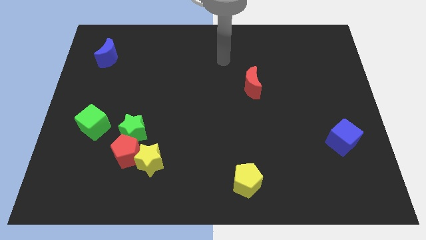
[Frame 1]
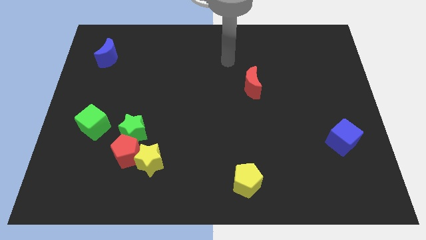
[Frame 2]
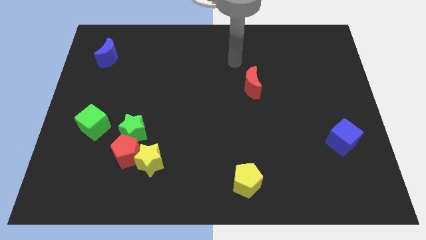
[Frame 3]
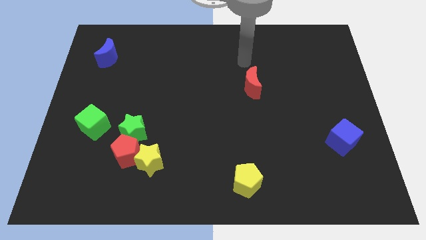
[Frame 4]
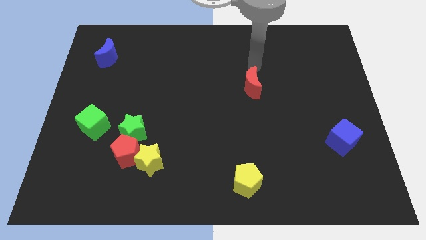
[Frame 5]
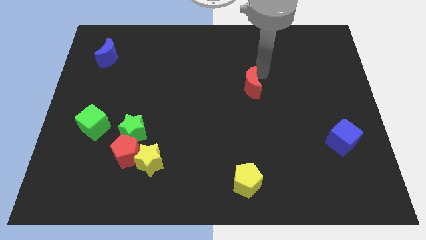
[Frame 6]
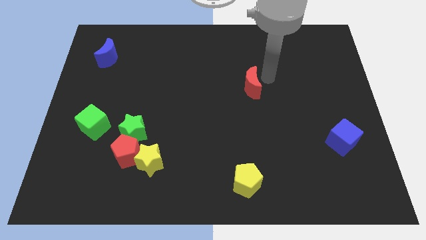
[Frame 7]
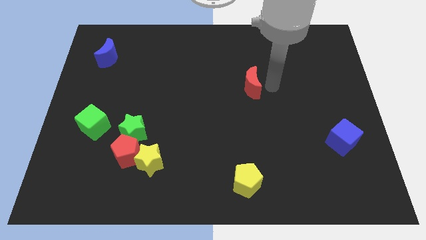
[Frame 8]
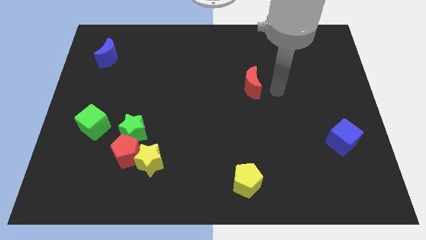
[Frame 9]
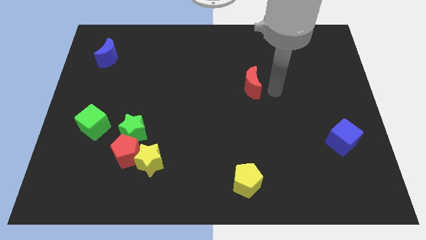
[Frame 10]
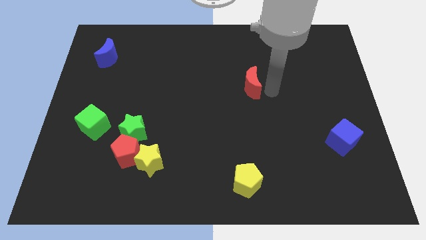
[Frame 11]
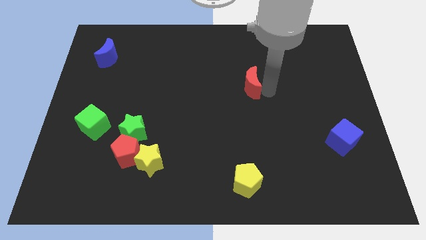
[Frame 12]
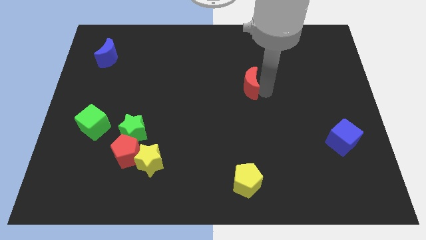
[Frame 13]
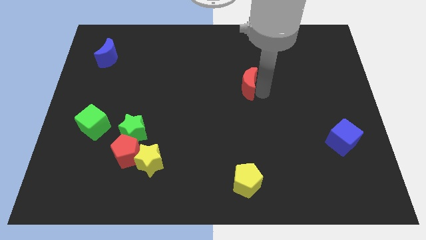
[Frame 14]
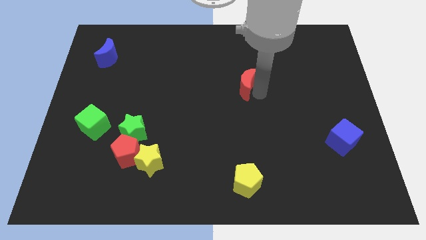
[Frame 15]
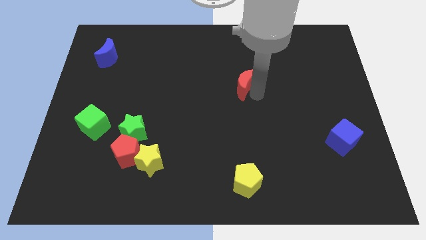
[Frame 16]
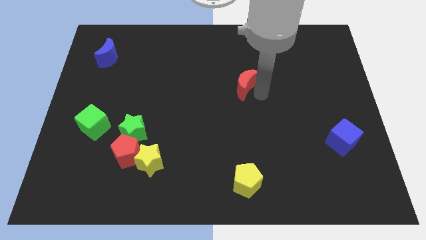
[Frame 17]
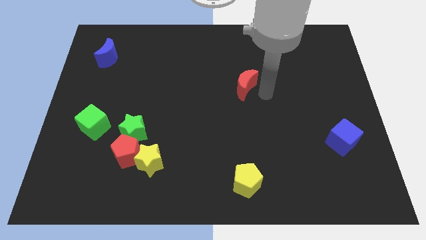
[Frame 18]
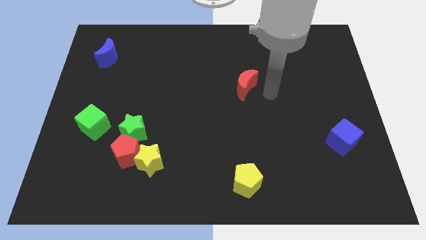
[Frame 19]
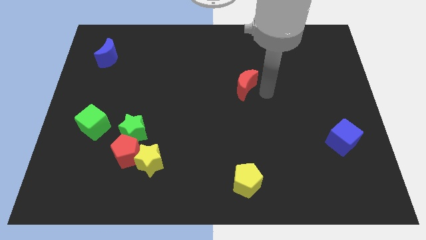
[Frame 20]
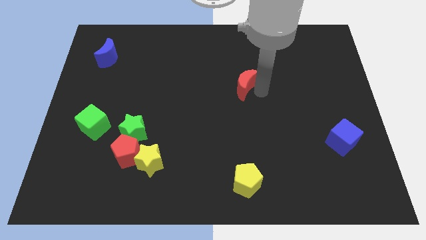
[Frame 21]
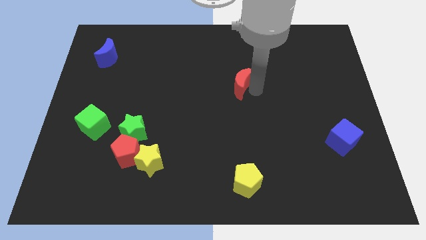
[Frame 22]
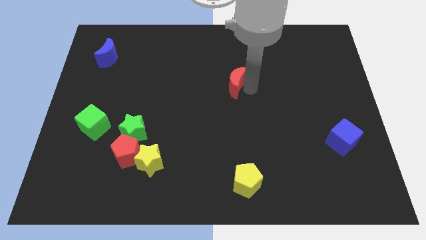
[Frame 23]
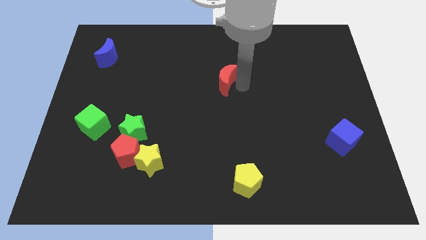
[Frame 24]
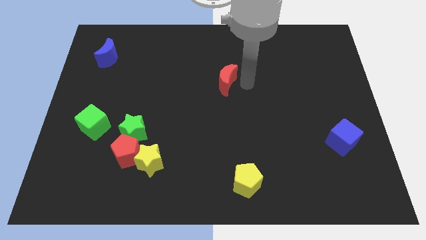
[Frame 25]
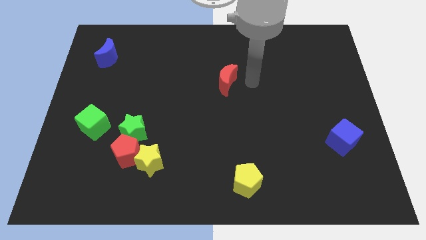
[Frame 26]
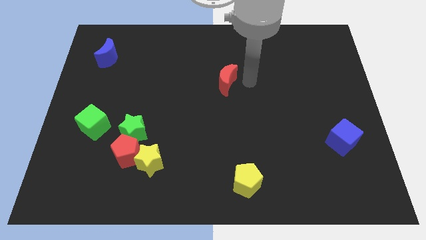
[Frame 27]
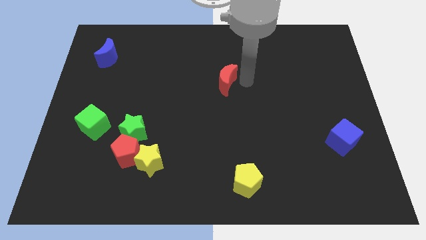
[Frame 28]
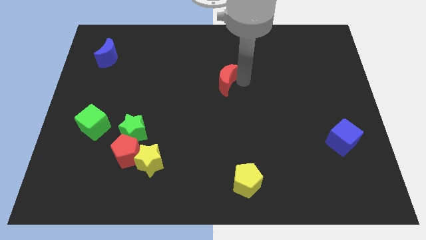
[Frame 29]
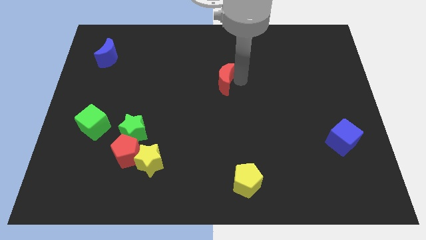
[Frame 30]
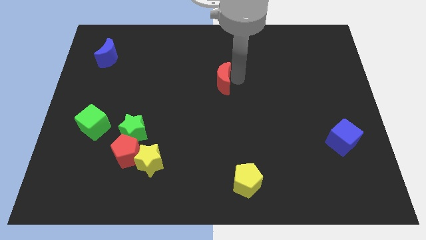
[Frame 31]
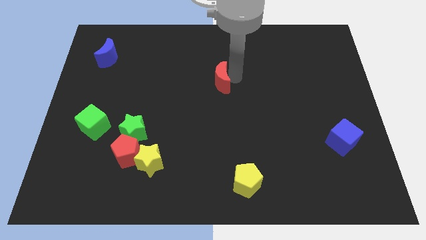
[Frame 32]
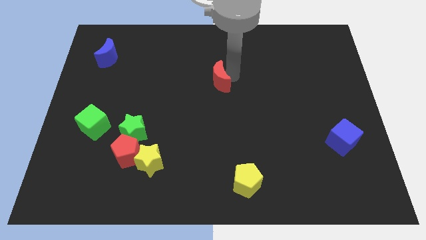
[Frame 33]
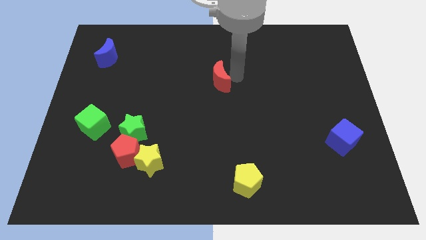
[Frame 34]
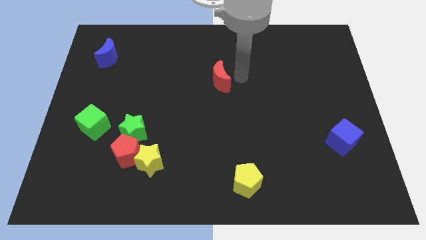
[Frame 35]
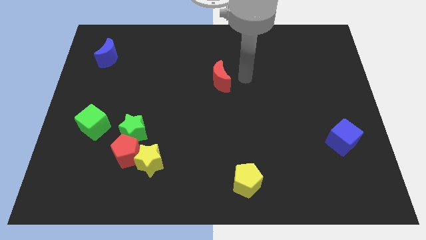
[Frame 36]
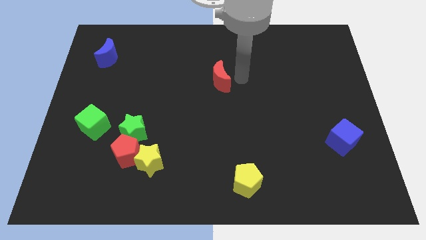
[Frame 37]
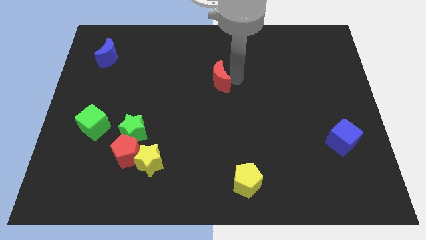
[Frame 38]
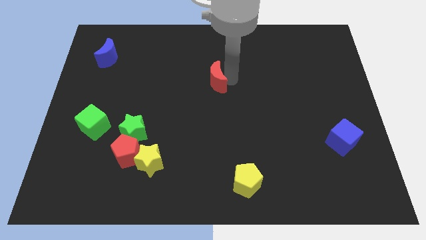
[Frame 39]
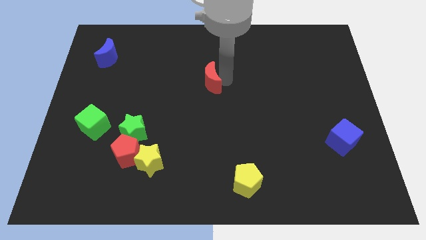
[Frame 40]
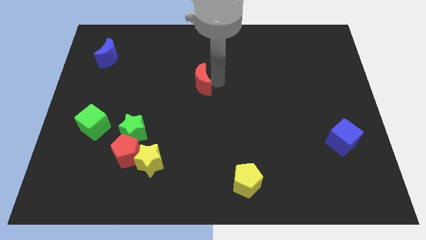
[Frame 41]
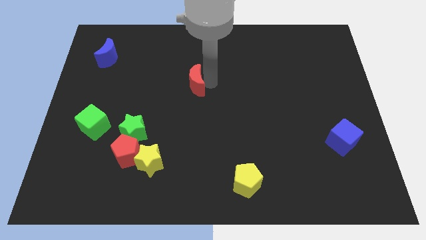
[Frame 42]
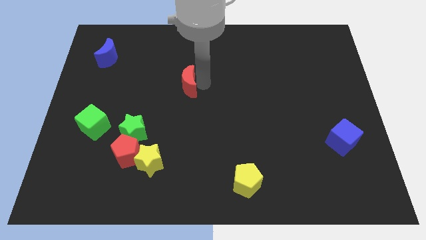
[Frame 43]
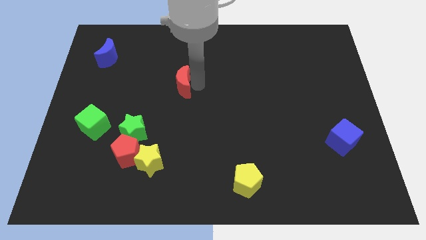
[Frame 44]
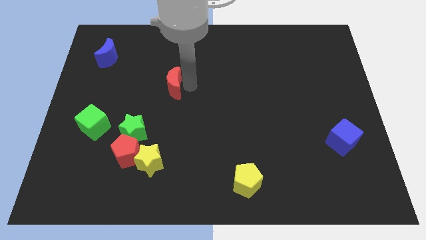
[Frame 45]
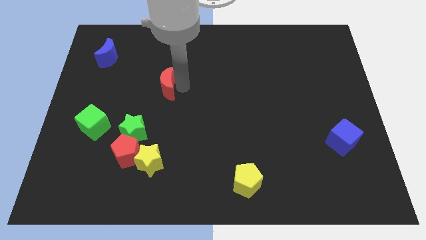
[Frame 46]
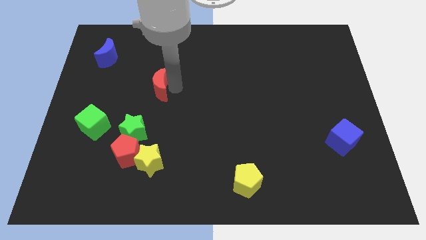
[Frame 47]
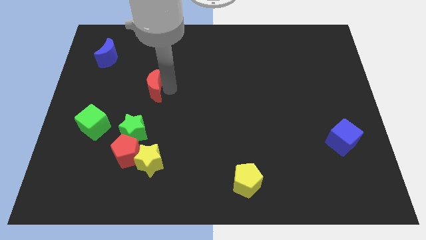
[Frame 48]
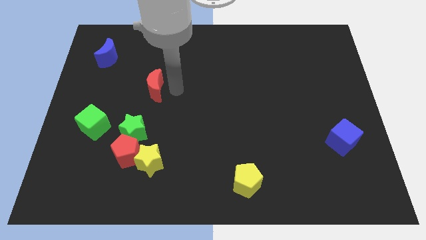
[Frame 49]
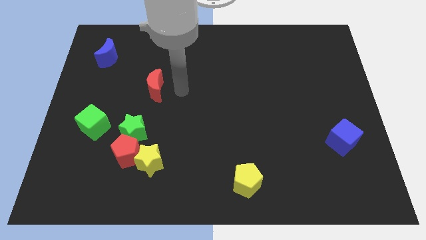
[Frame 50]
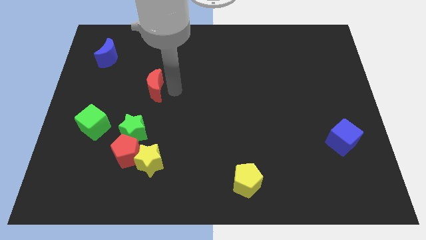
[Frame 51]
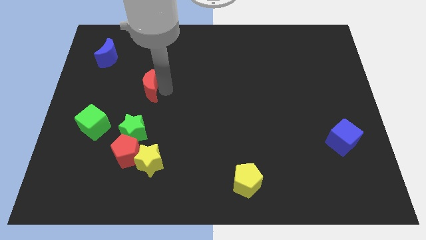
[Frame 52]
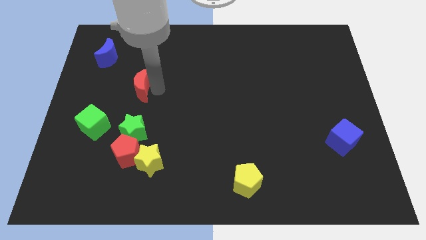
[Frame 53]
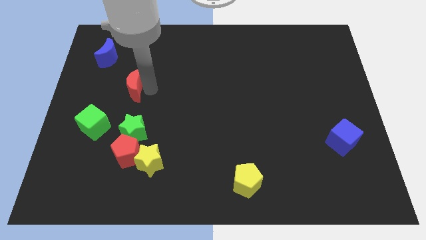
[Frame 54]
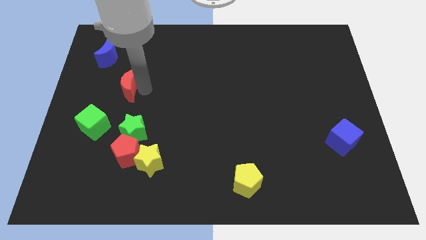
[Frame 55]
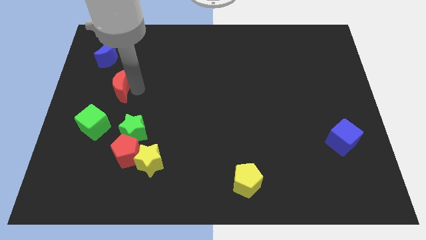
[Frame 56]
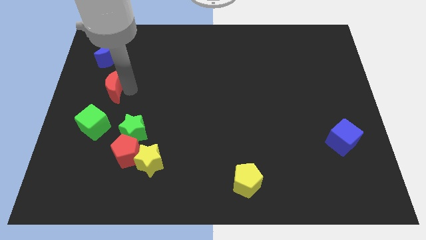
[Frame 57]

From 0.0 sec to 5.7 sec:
put the red moon to the bottom side of the blue moon

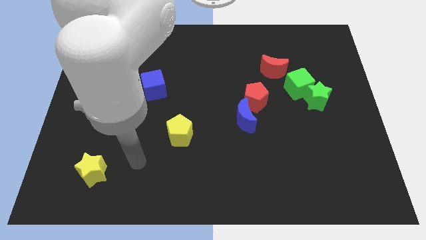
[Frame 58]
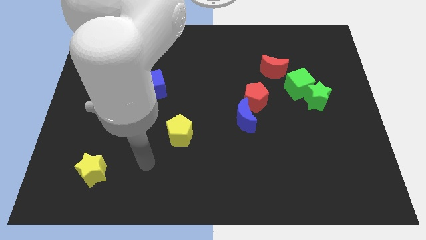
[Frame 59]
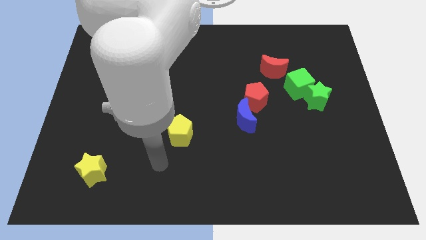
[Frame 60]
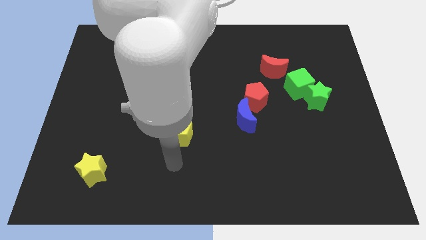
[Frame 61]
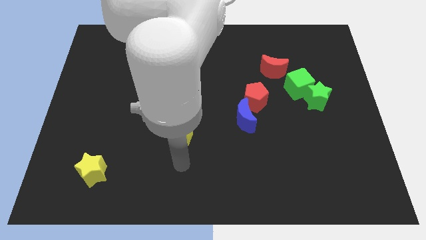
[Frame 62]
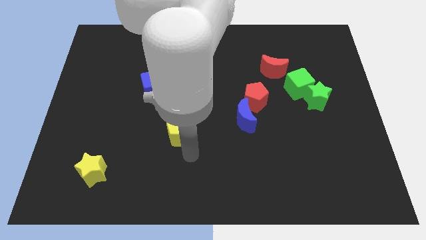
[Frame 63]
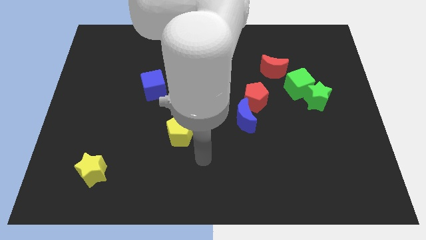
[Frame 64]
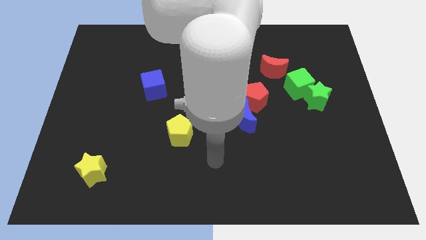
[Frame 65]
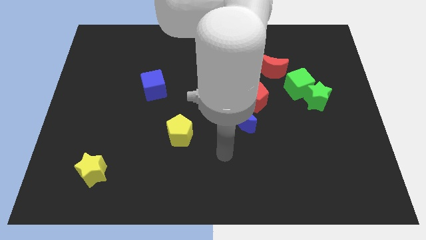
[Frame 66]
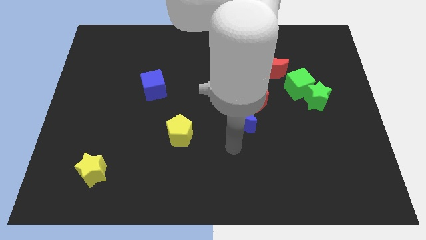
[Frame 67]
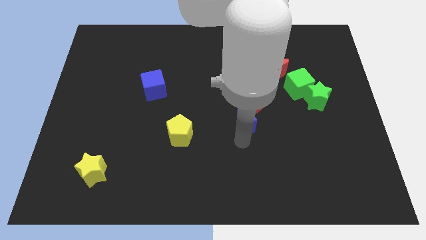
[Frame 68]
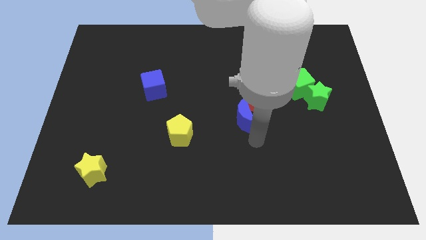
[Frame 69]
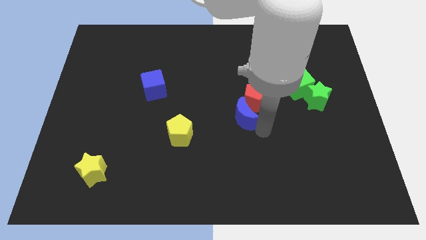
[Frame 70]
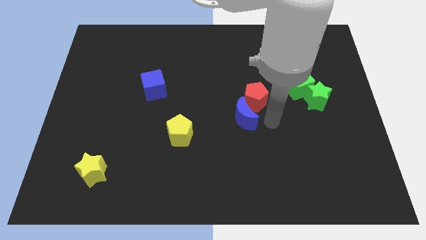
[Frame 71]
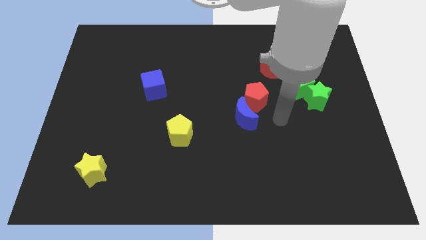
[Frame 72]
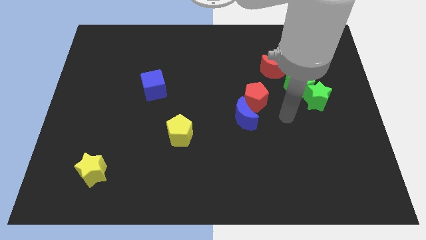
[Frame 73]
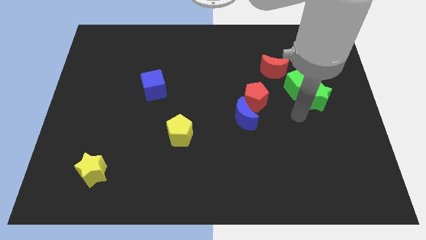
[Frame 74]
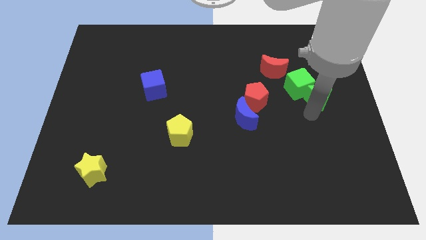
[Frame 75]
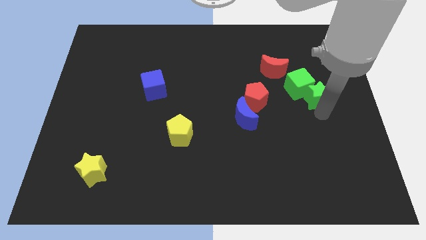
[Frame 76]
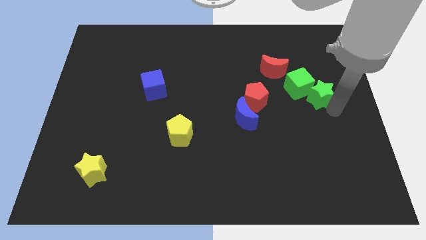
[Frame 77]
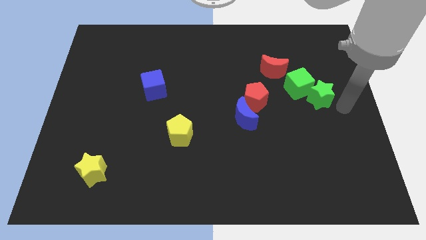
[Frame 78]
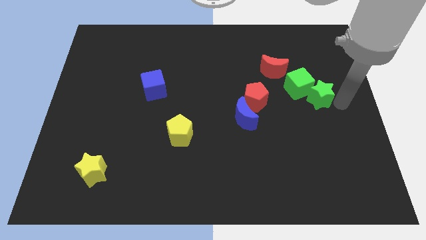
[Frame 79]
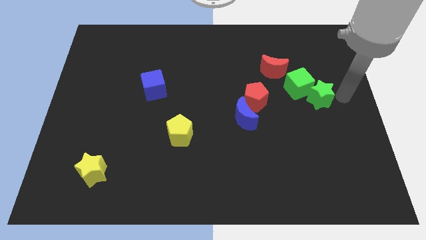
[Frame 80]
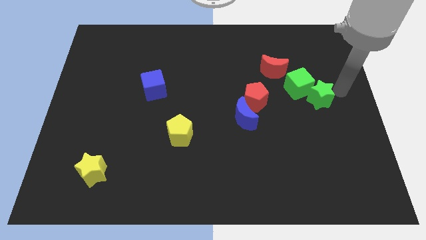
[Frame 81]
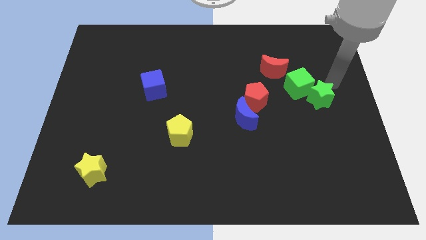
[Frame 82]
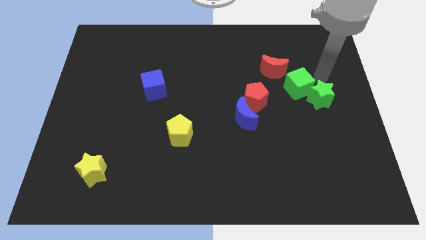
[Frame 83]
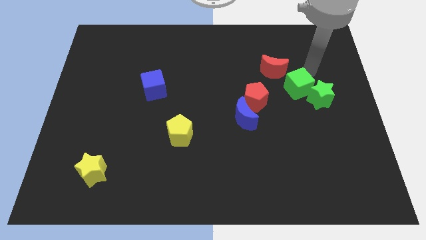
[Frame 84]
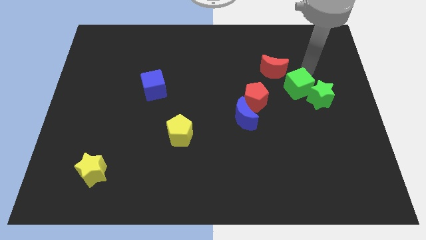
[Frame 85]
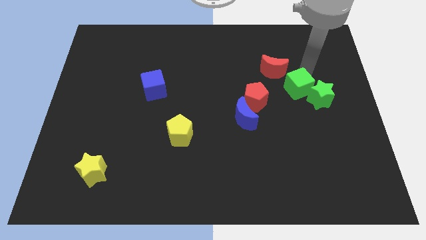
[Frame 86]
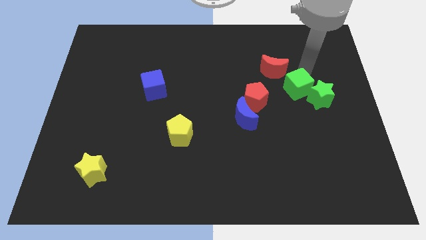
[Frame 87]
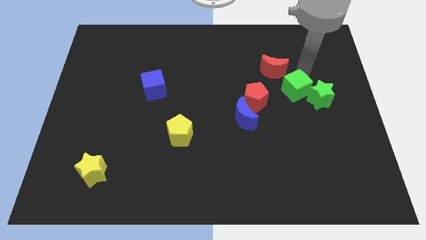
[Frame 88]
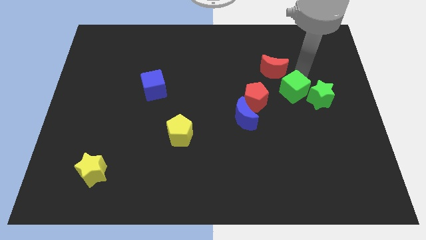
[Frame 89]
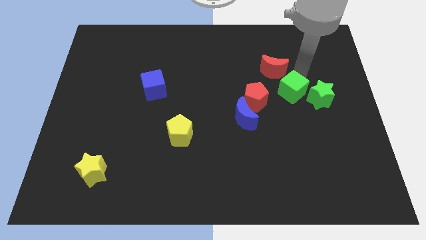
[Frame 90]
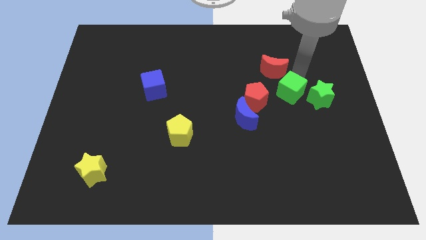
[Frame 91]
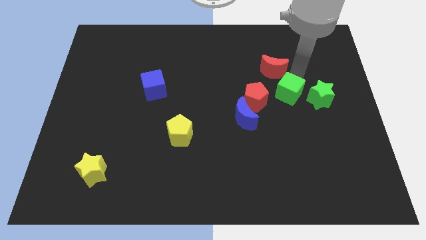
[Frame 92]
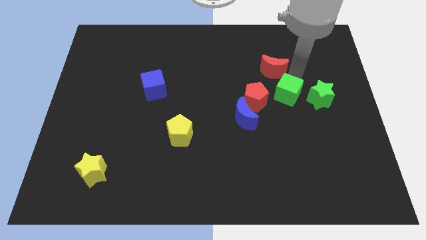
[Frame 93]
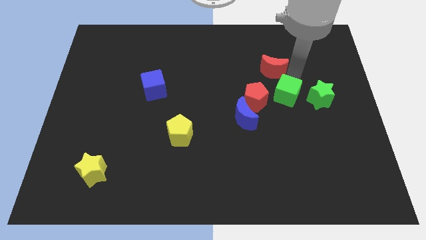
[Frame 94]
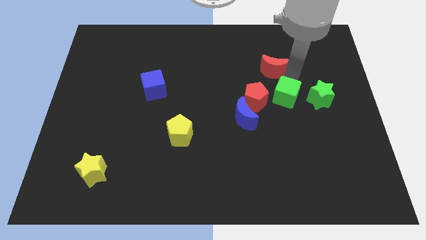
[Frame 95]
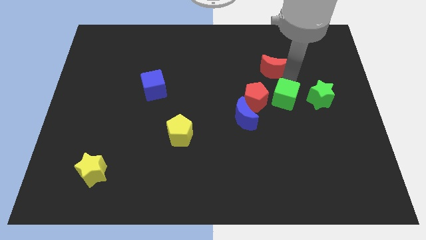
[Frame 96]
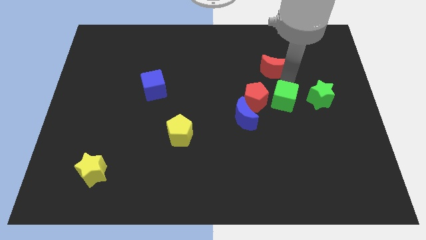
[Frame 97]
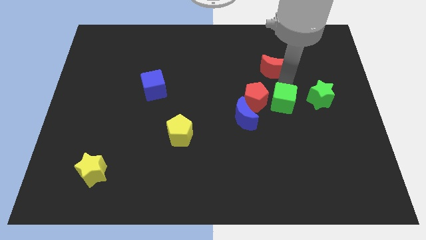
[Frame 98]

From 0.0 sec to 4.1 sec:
push the green cube diagonally down and to the right of the red pentagon
